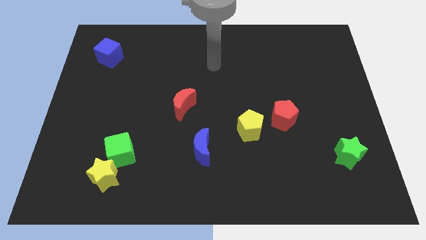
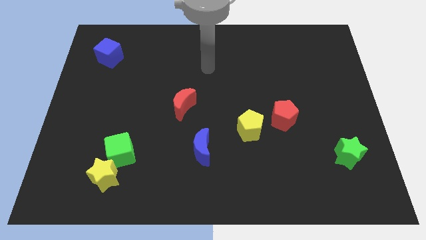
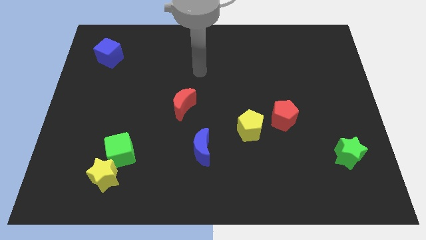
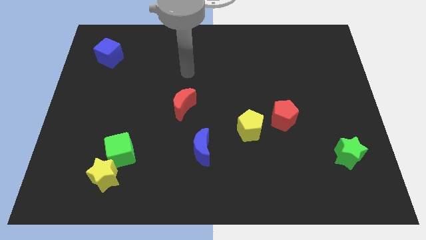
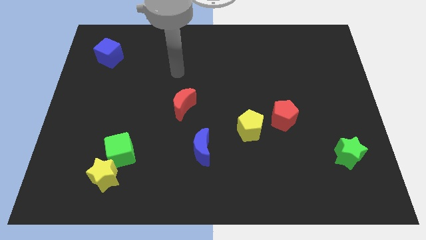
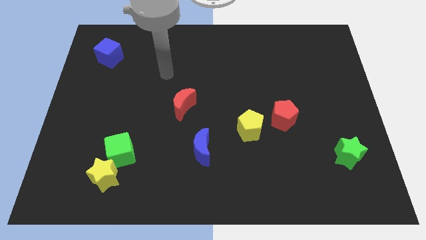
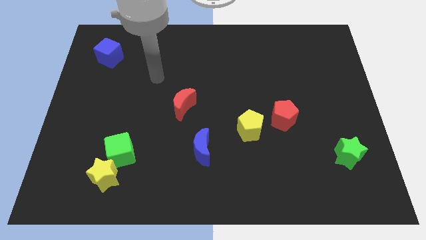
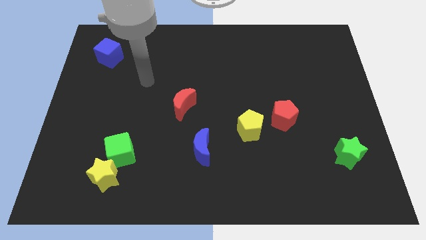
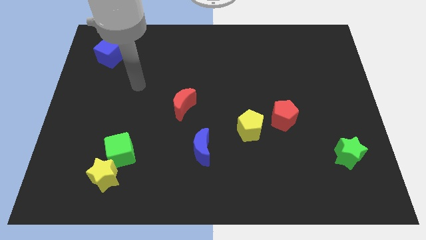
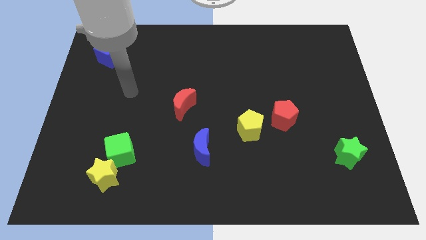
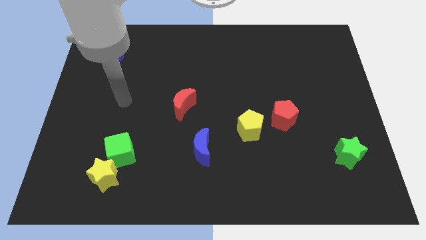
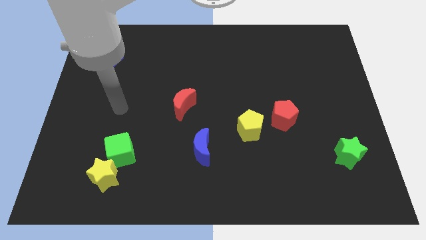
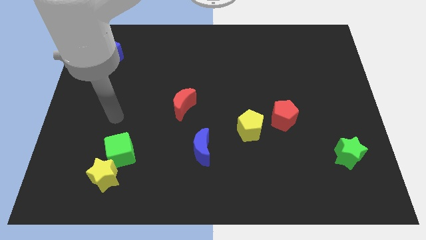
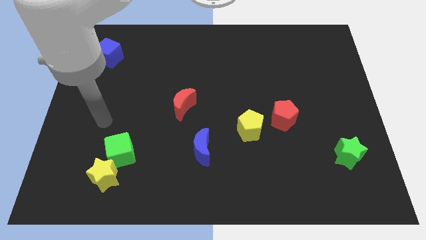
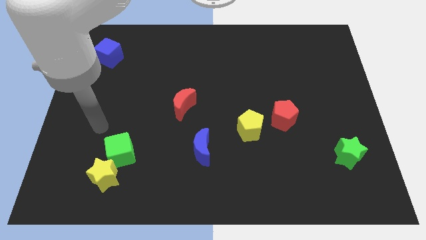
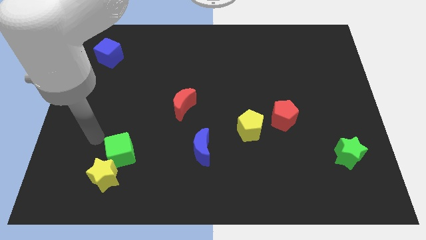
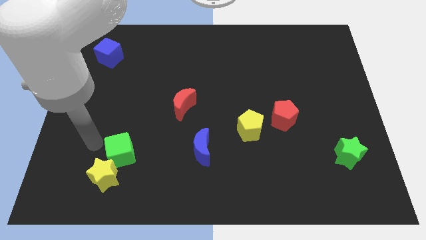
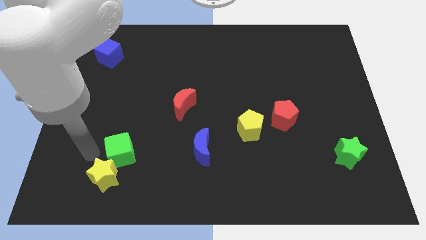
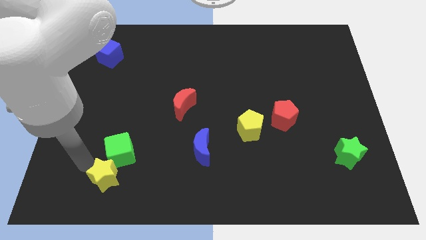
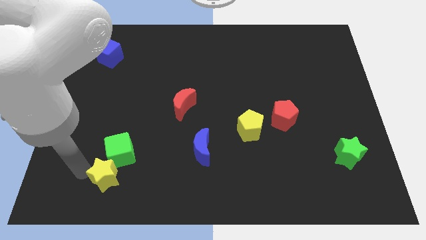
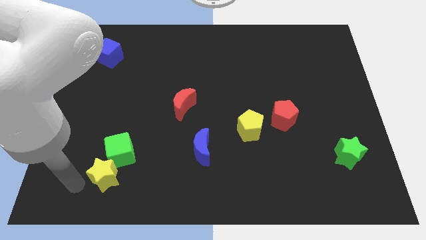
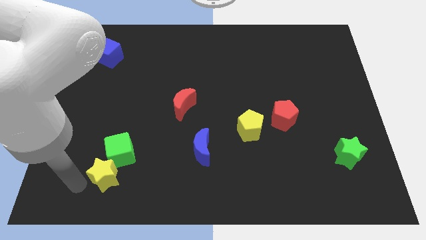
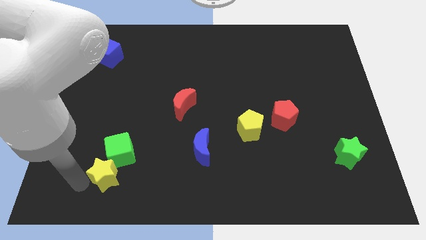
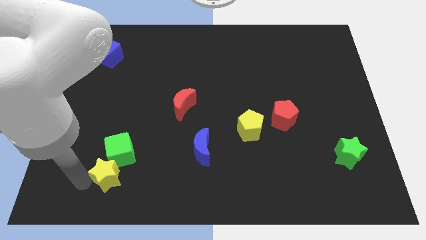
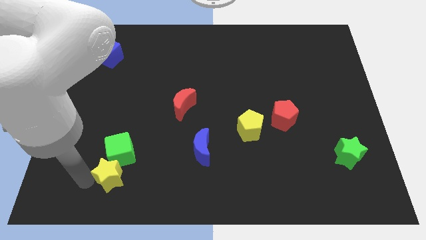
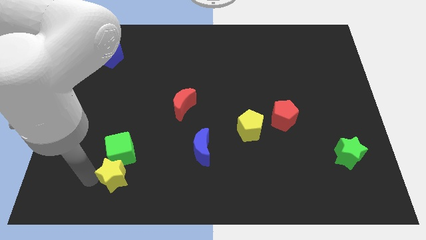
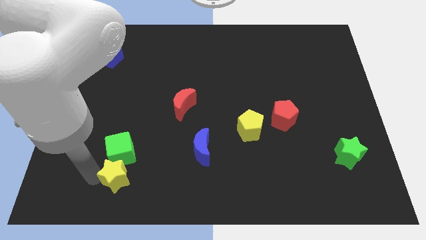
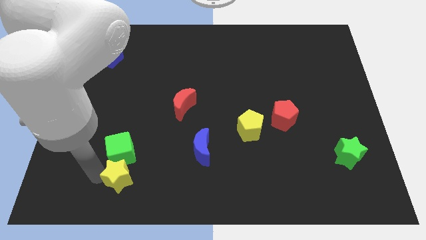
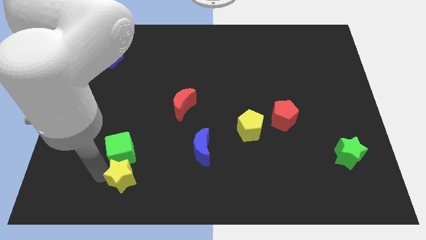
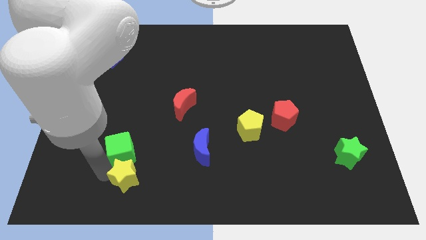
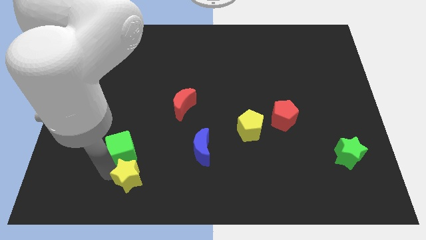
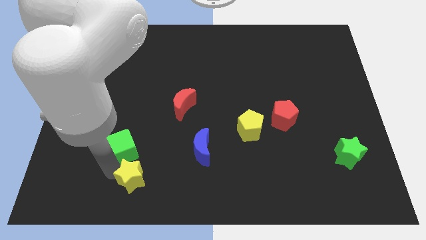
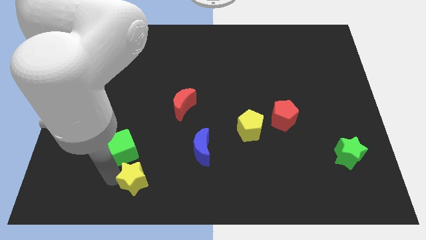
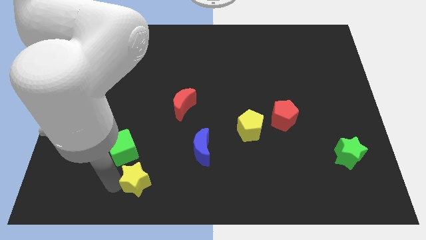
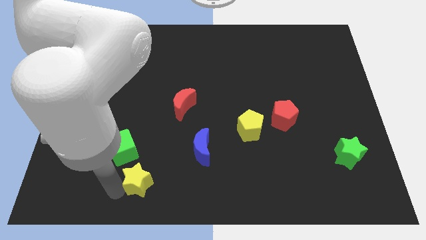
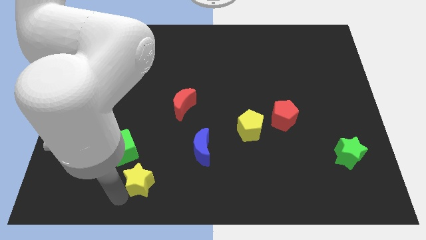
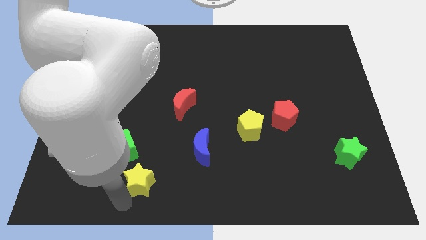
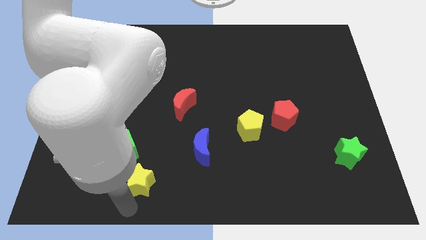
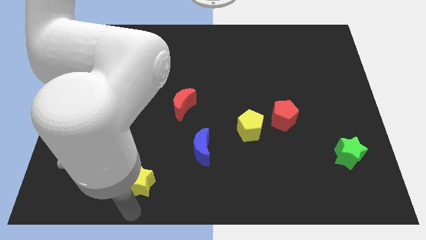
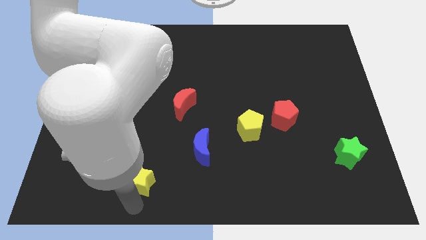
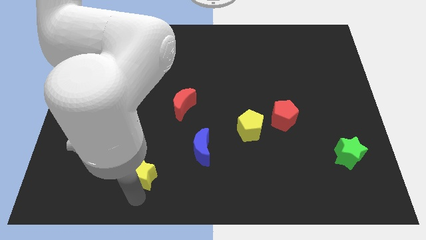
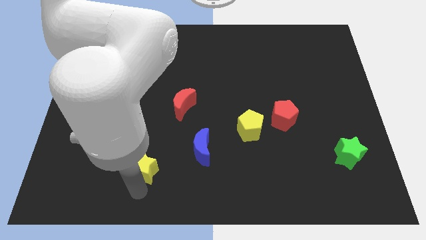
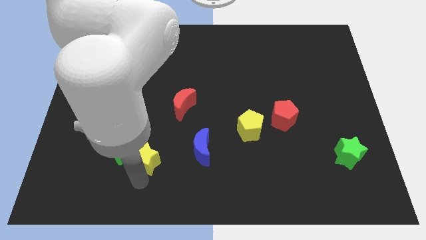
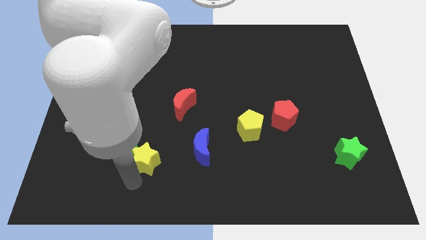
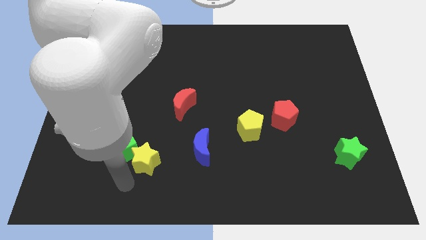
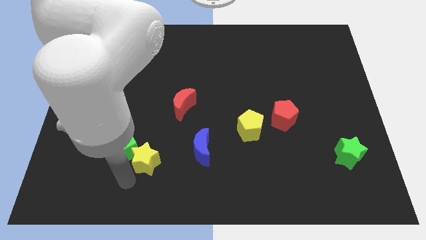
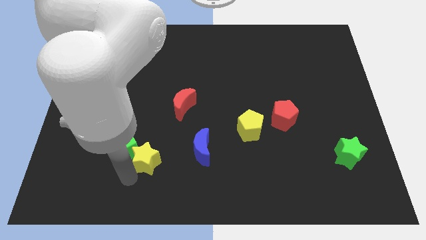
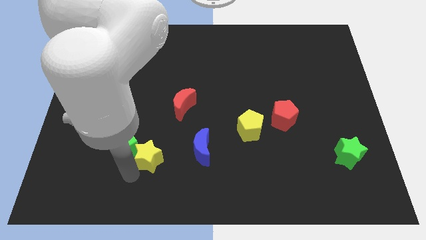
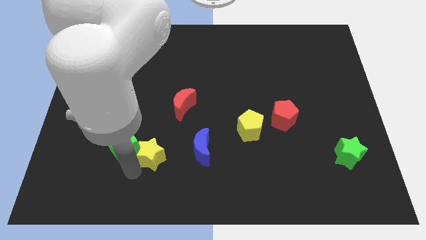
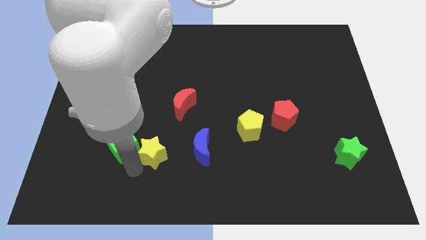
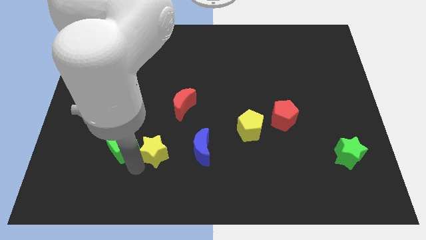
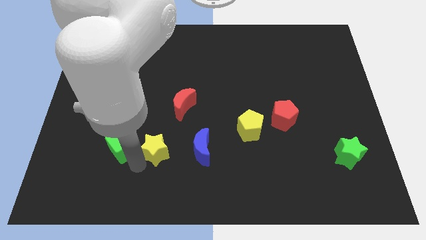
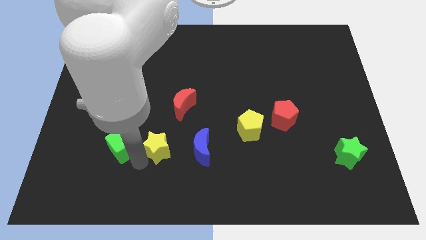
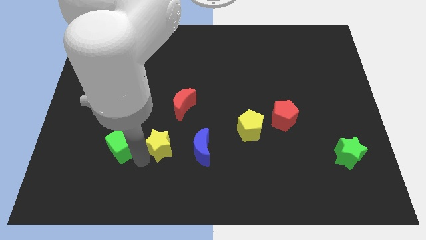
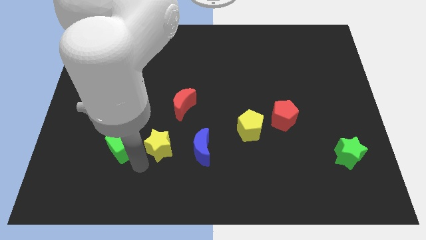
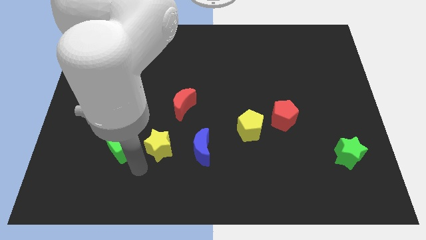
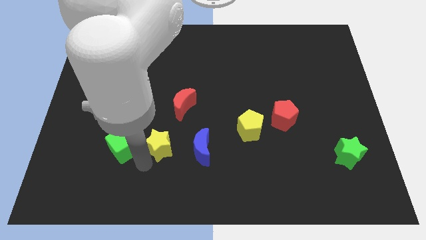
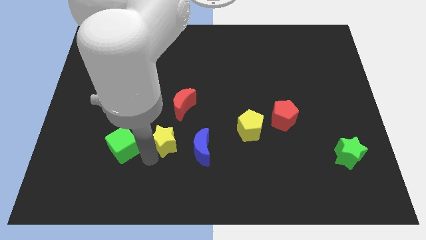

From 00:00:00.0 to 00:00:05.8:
push the yellow star to the top left side of the blue moon

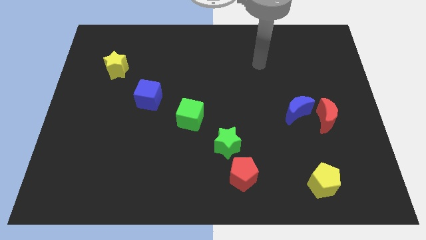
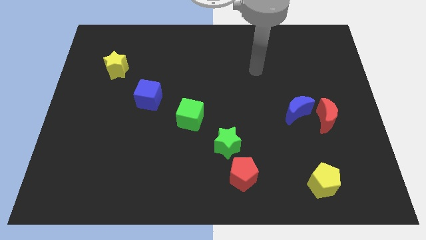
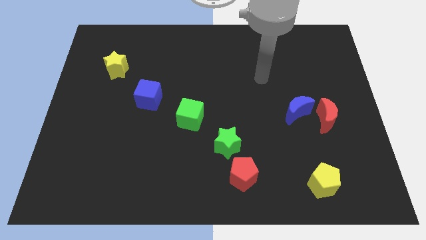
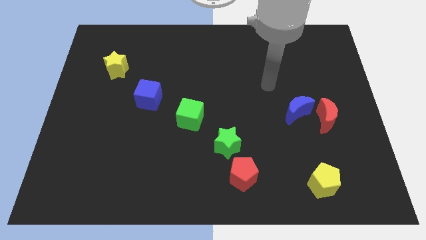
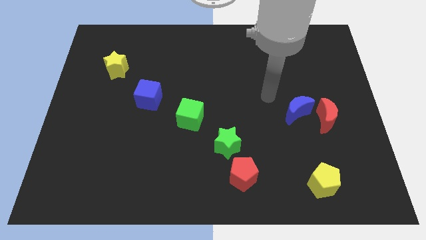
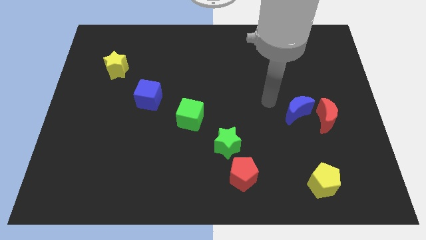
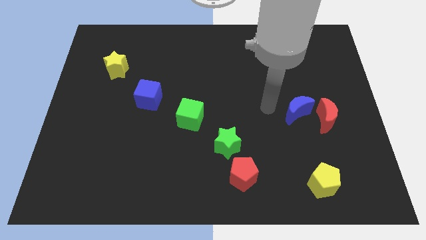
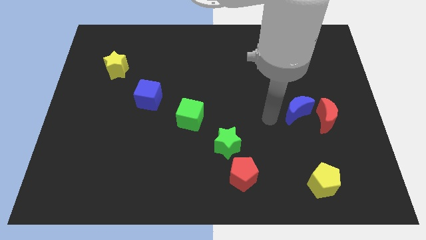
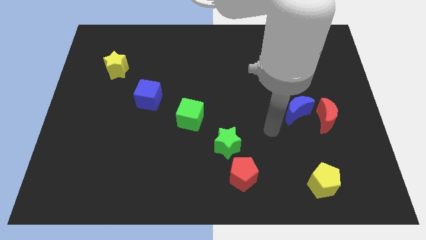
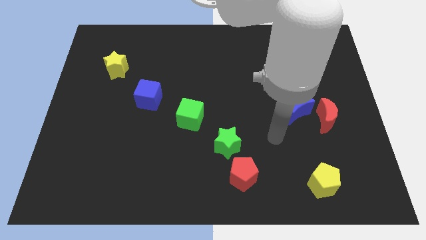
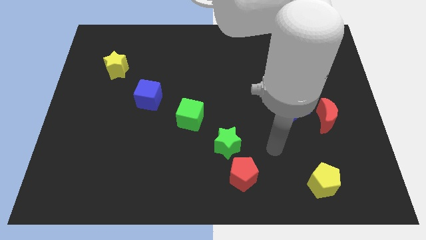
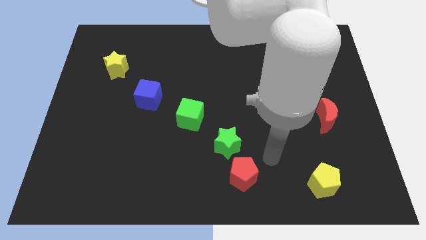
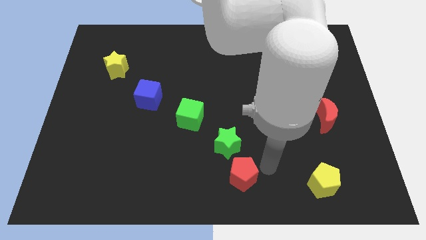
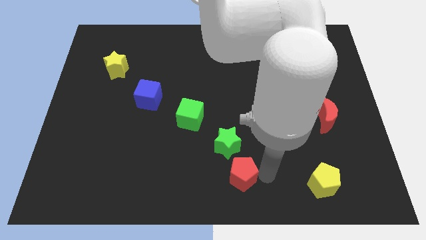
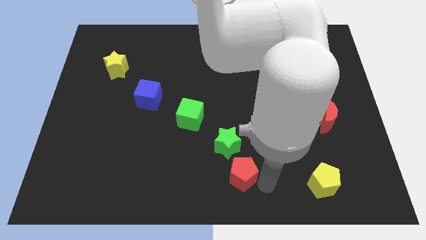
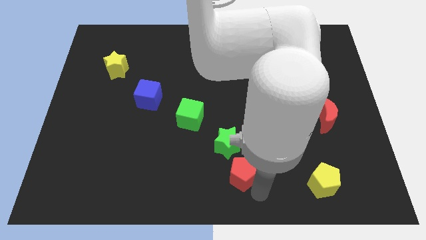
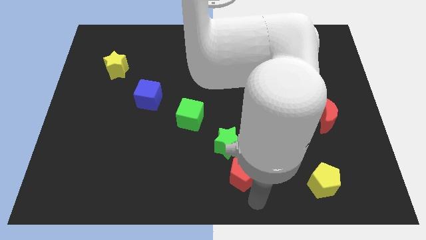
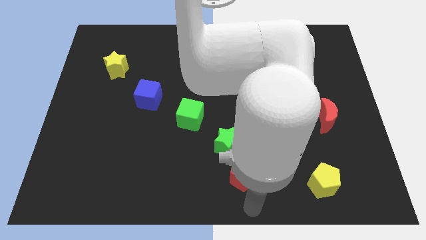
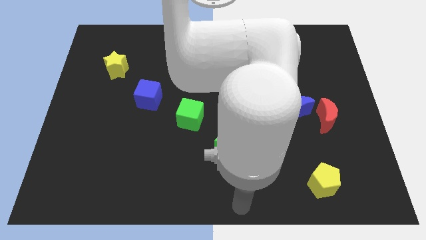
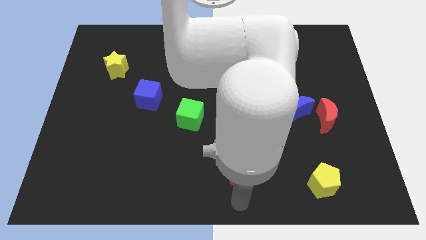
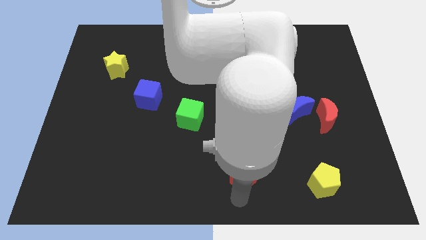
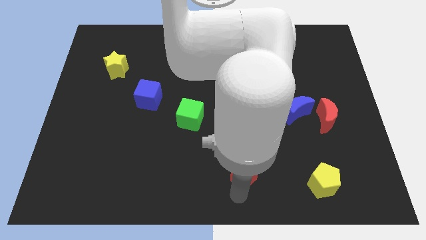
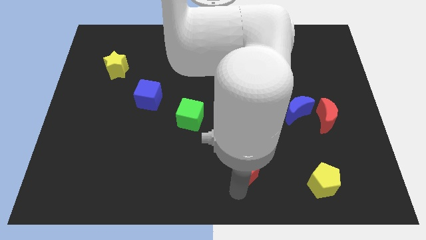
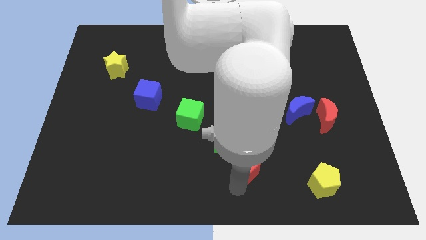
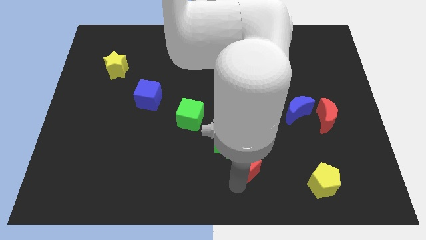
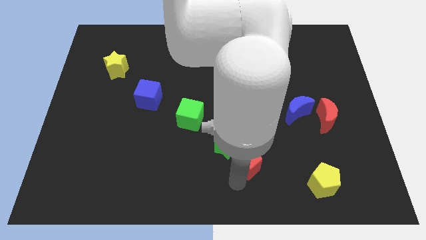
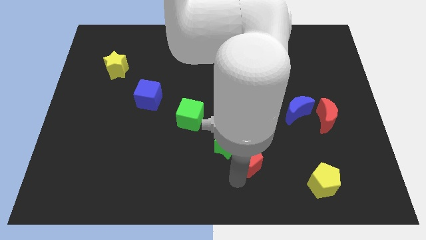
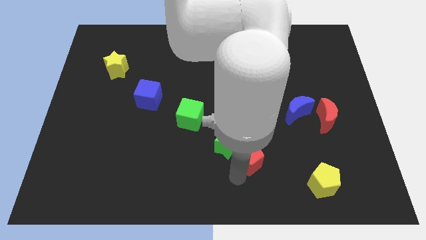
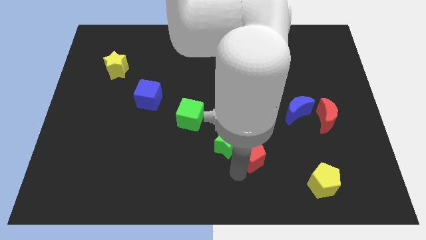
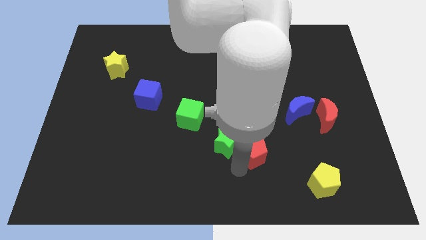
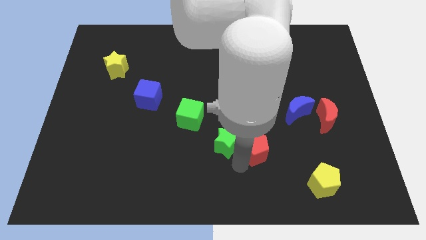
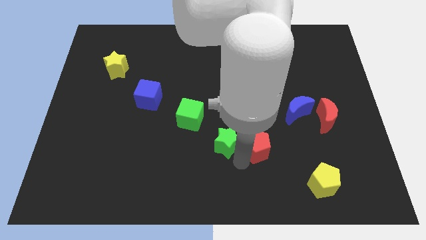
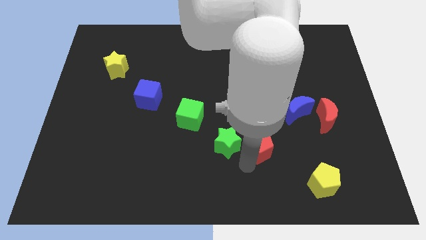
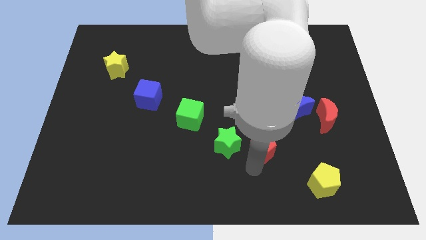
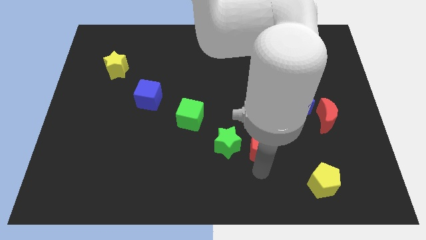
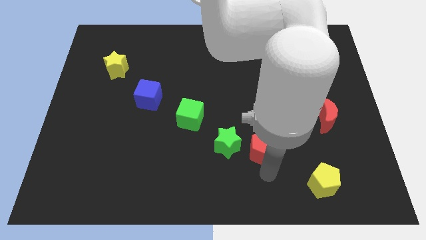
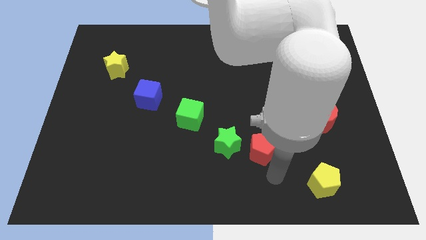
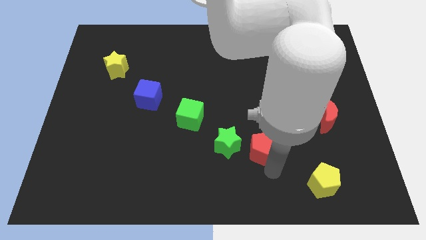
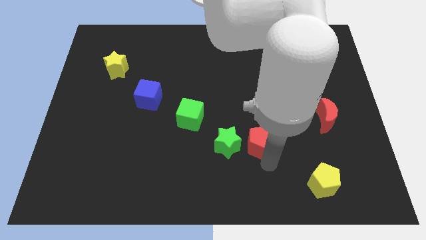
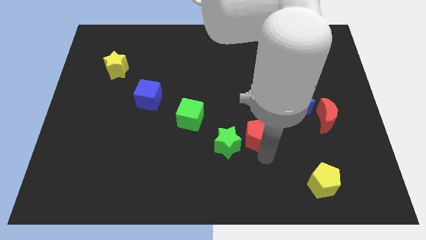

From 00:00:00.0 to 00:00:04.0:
put the red pentagon diagonally up and to the right of the green star
